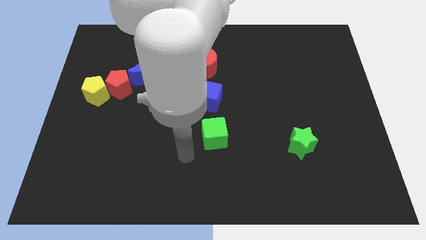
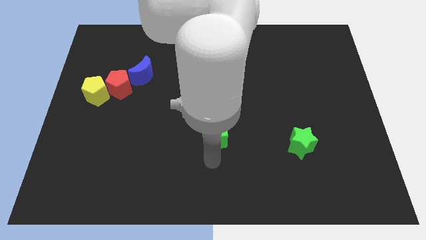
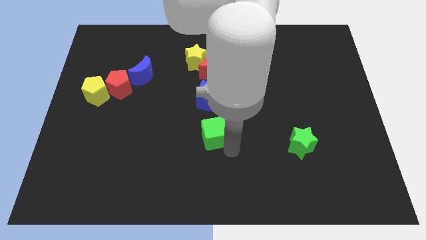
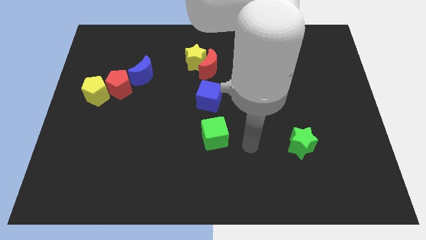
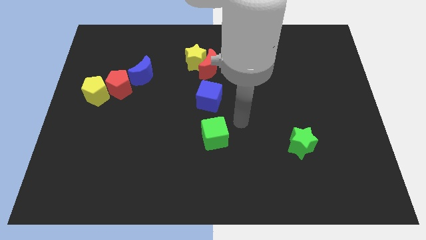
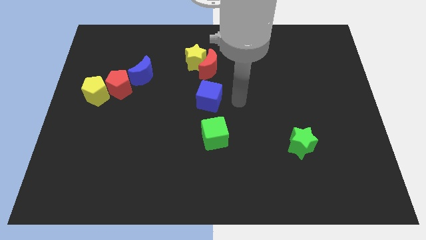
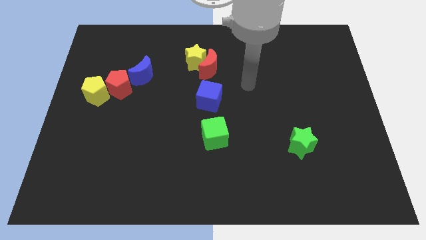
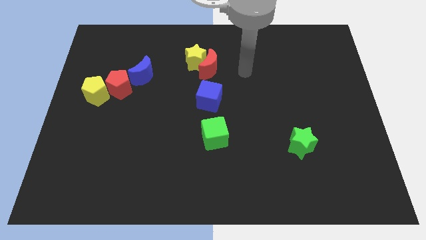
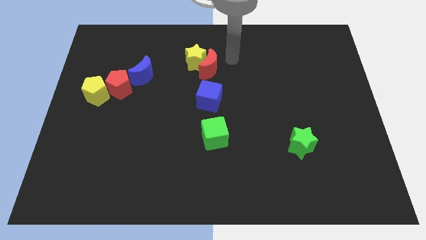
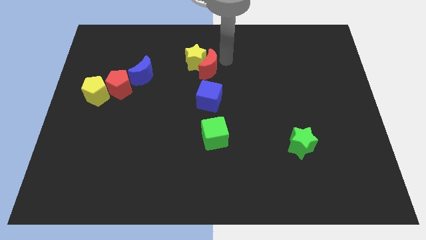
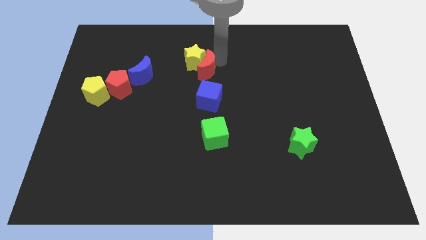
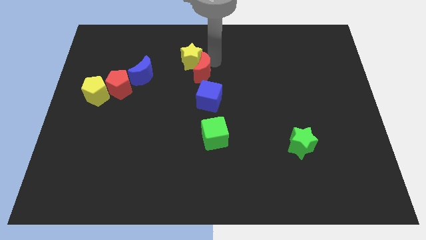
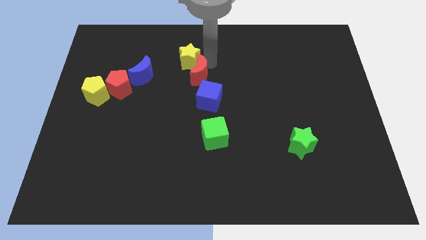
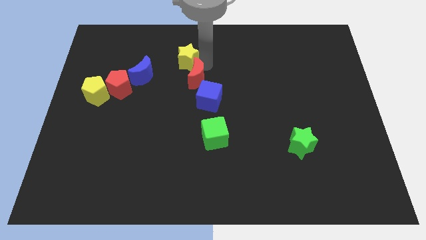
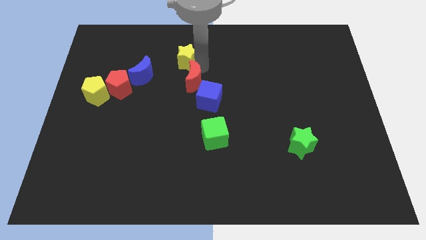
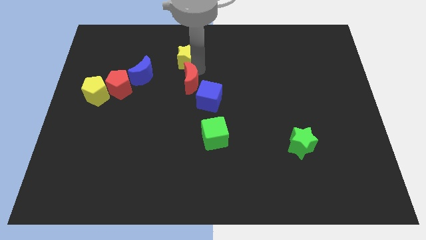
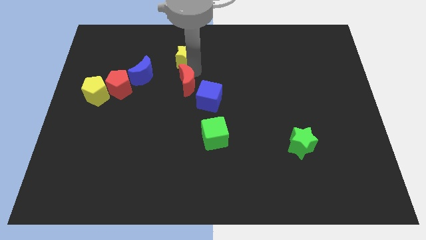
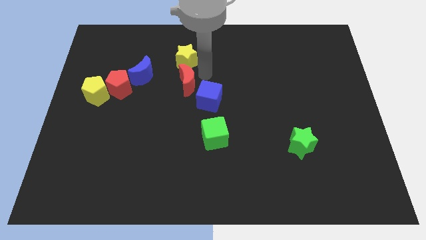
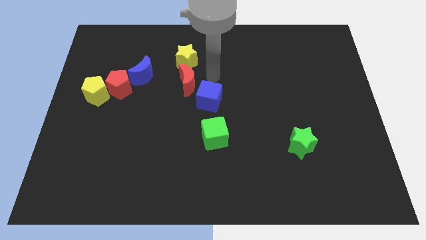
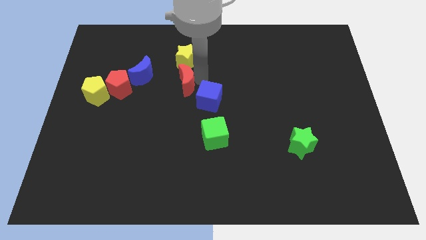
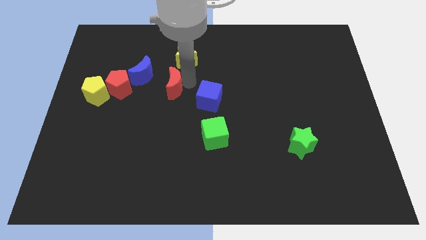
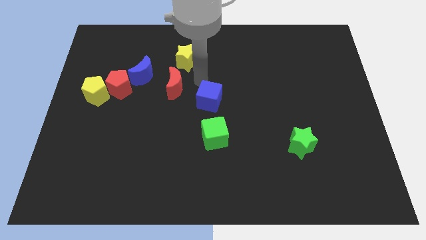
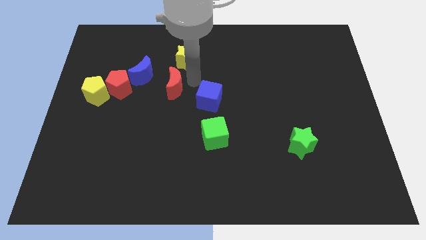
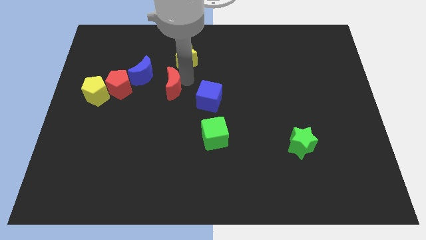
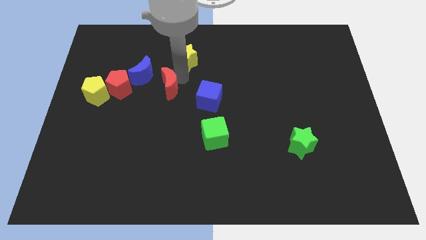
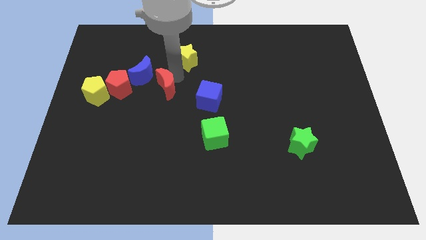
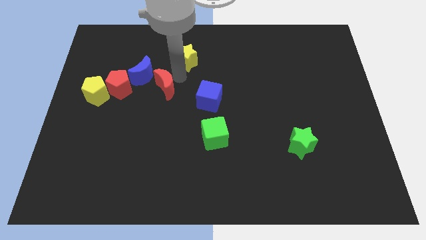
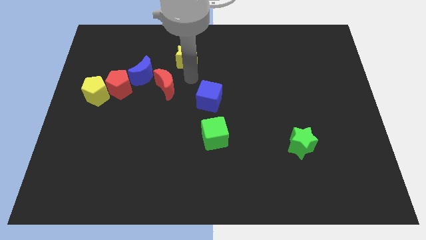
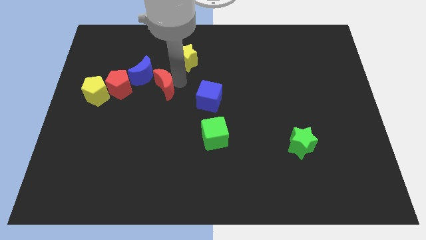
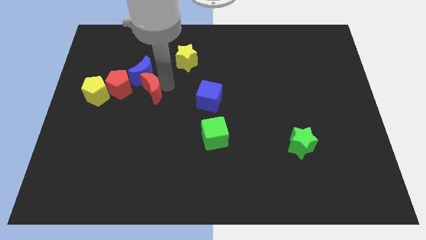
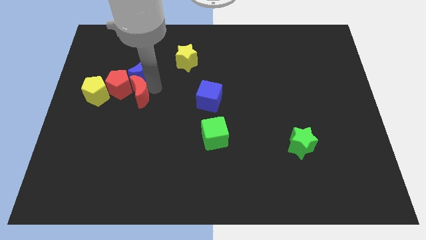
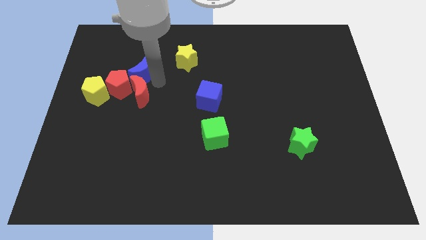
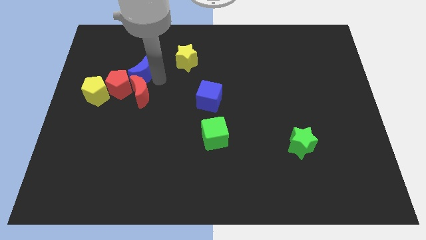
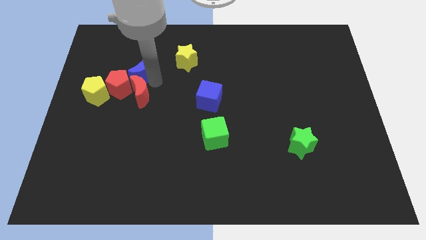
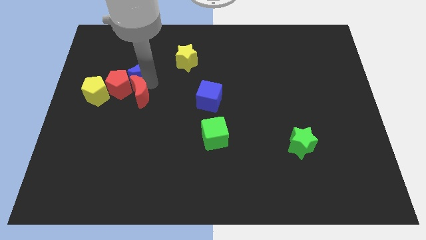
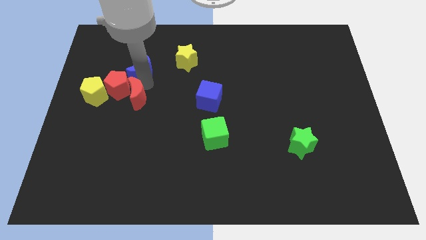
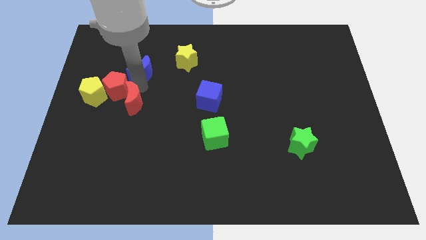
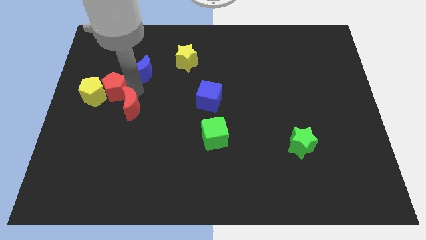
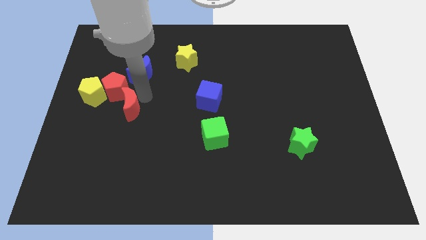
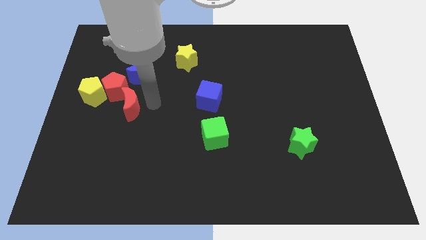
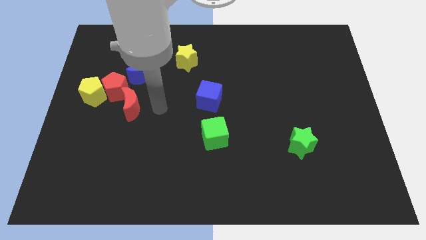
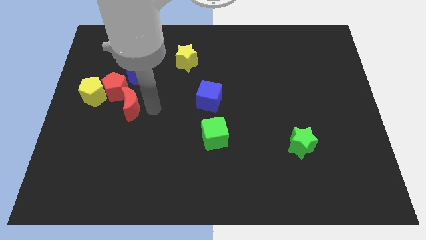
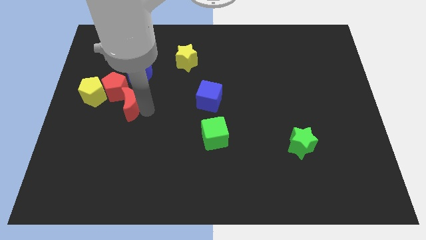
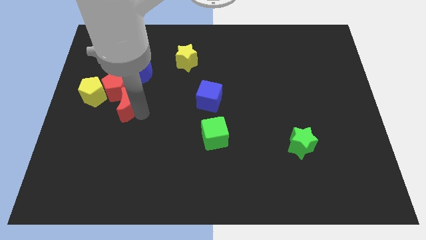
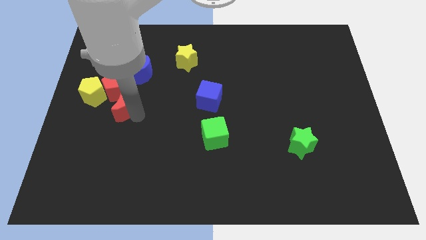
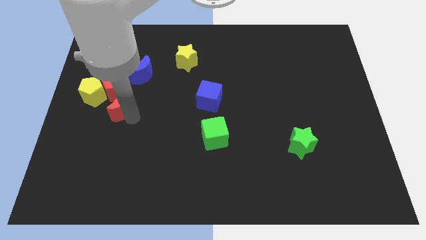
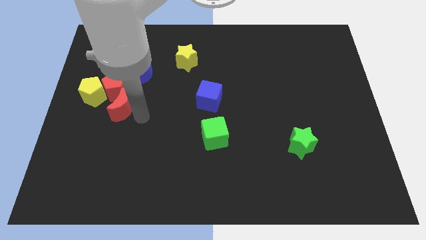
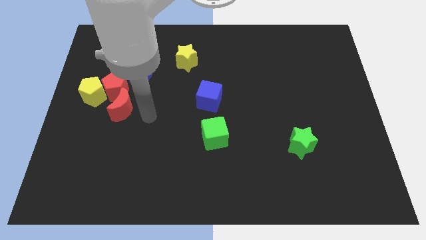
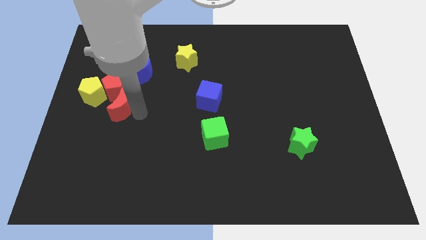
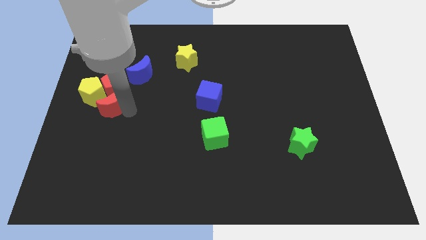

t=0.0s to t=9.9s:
move the red moon to the bottom left side of the red pentagon

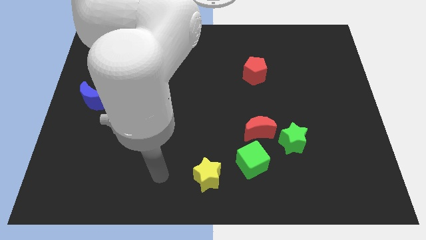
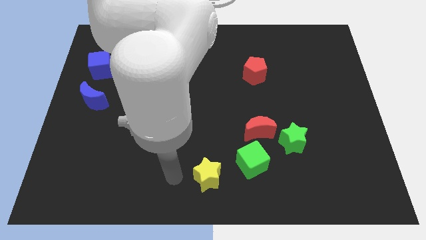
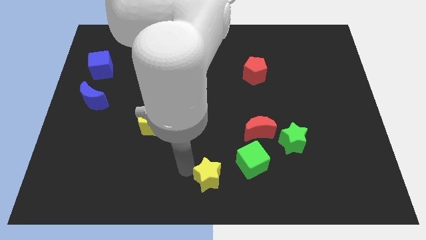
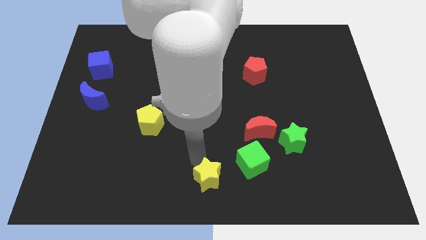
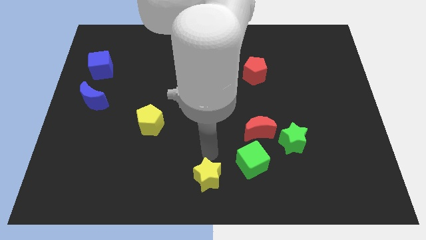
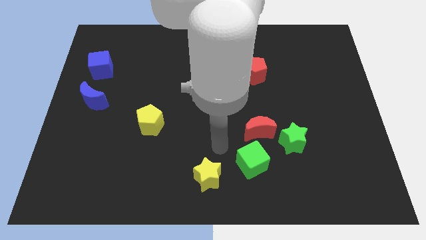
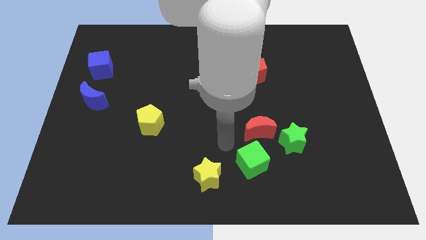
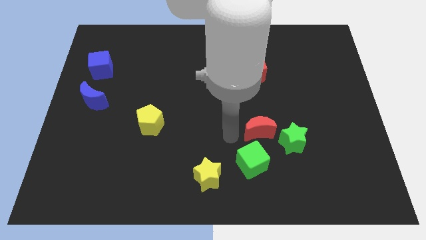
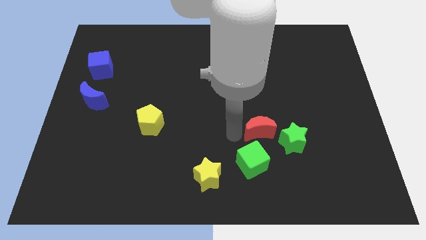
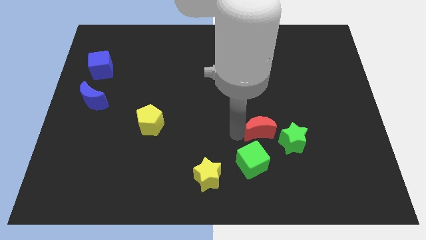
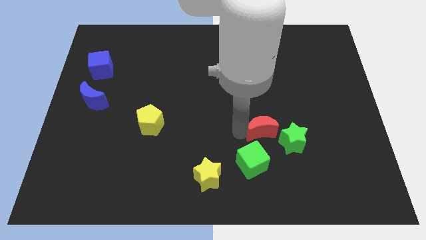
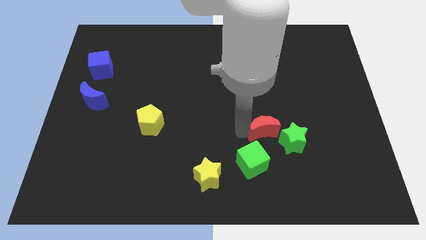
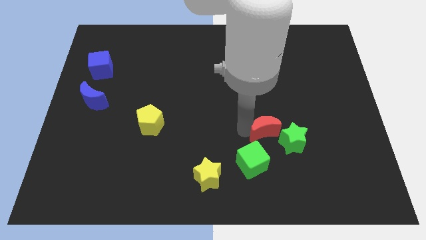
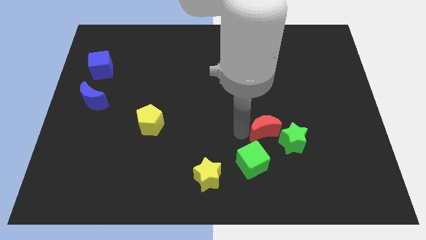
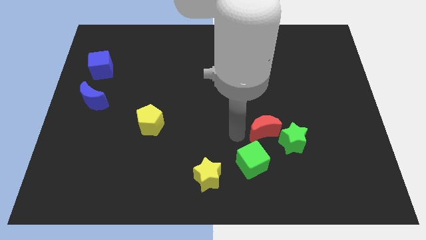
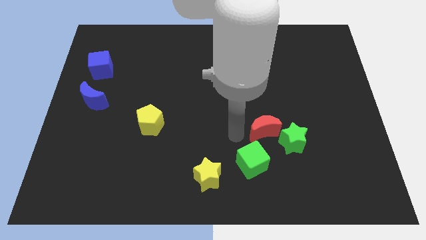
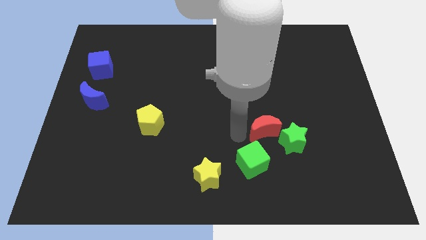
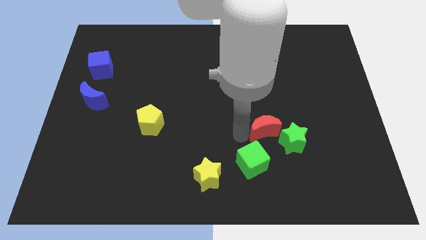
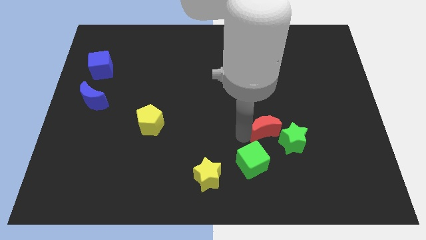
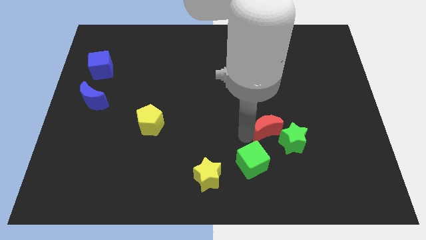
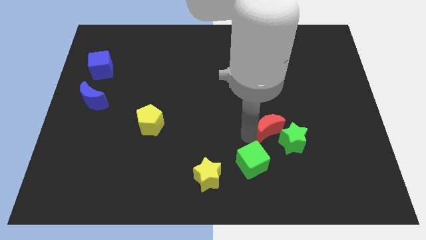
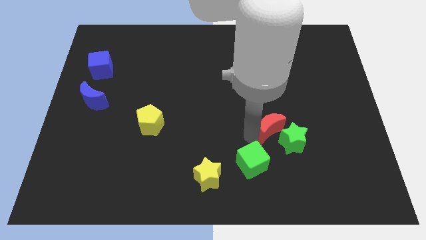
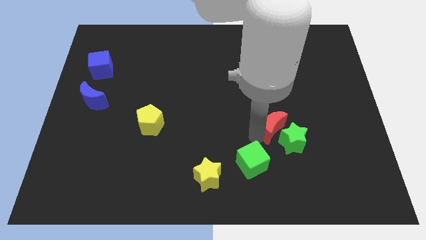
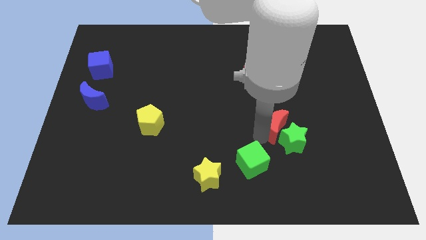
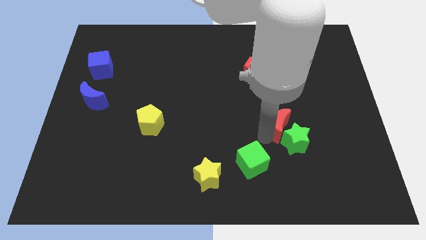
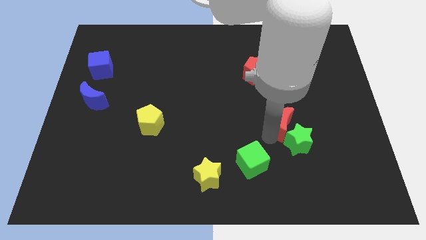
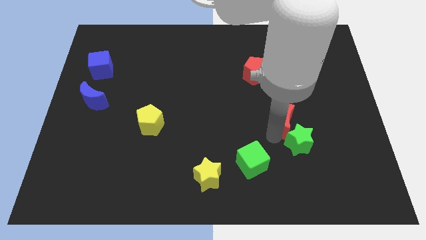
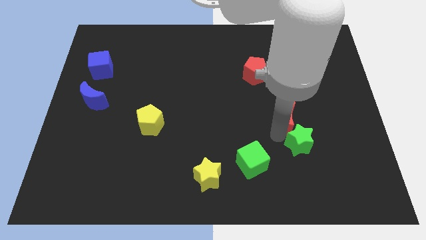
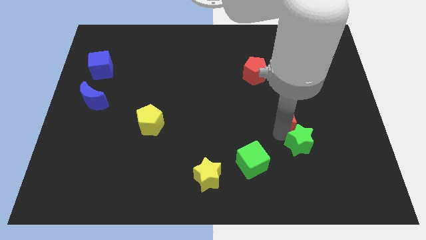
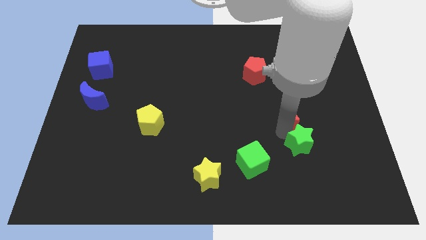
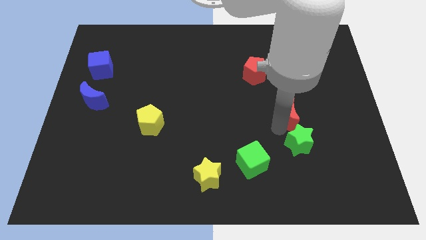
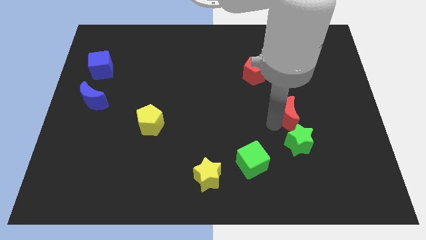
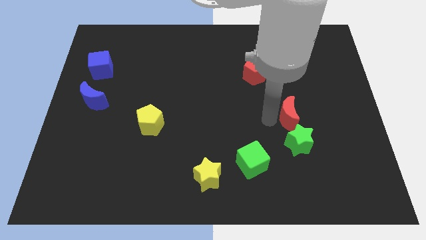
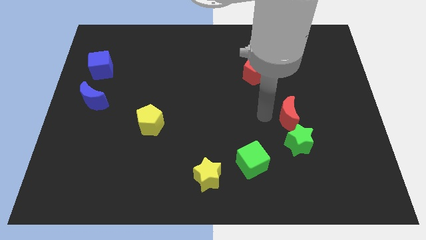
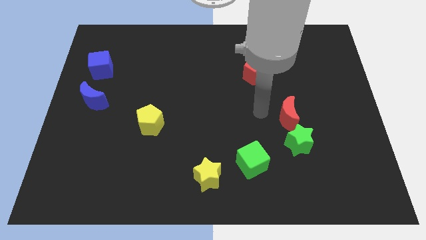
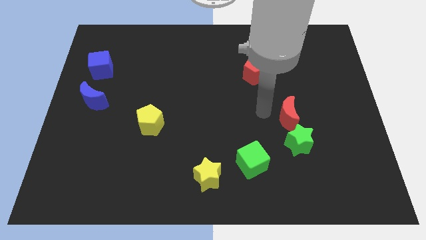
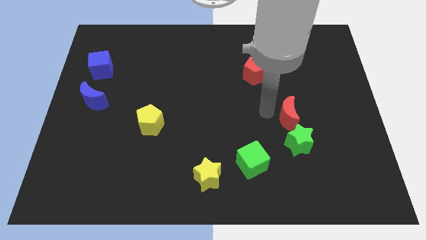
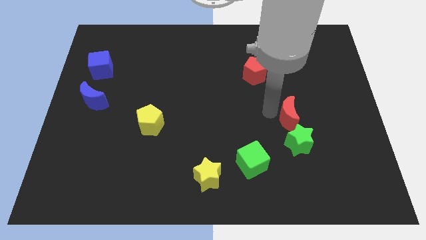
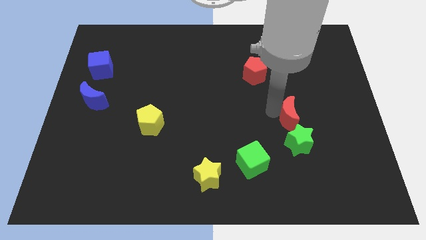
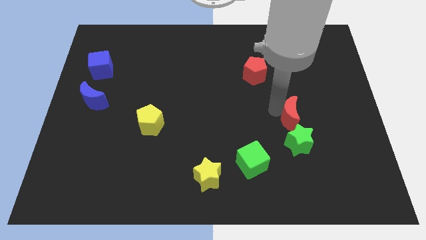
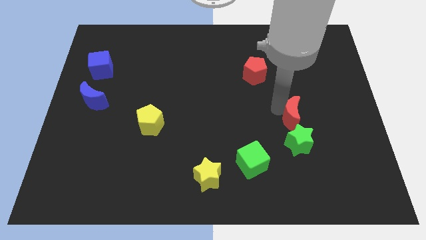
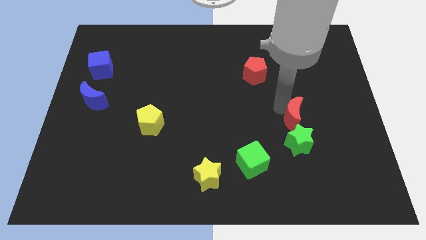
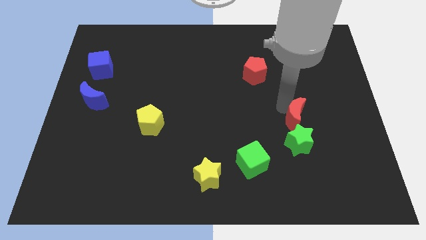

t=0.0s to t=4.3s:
move the red moon to the top right side of the green star
